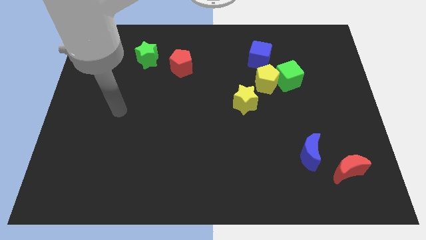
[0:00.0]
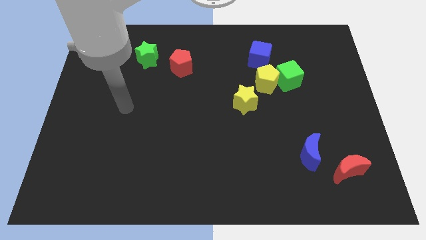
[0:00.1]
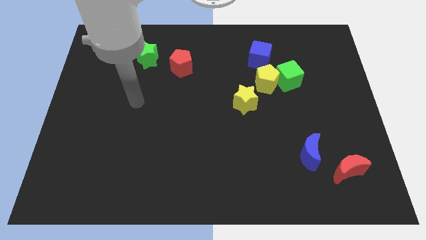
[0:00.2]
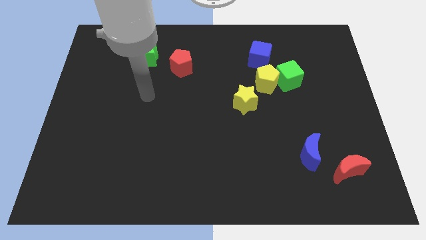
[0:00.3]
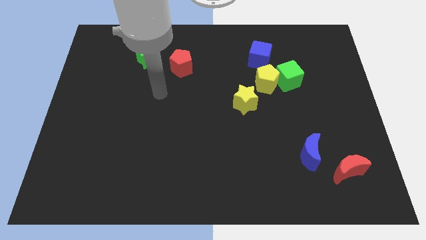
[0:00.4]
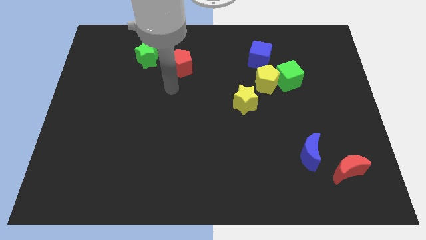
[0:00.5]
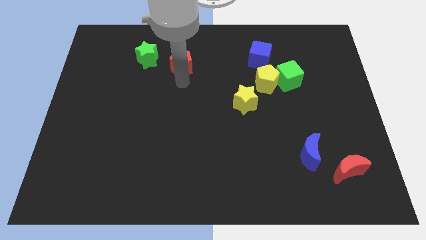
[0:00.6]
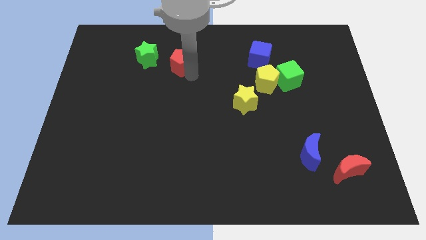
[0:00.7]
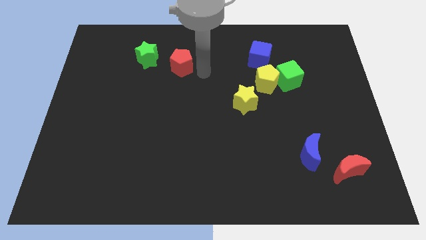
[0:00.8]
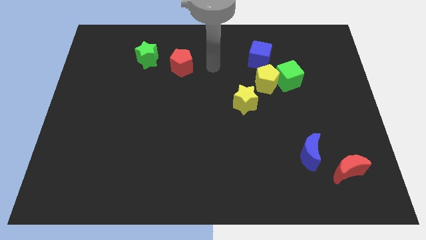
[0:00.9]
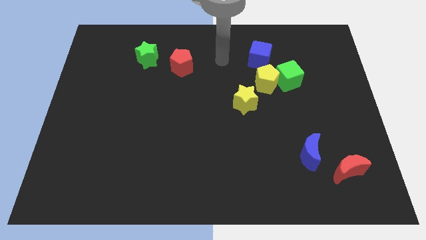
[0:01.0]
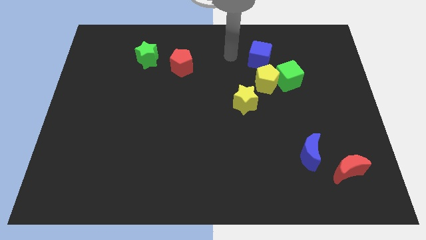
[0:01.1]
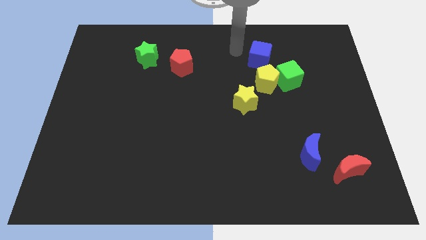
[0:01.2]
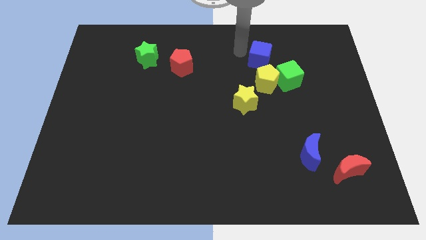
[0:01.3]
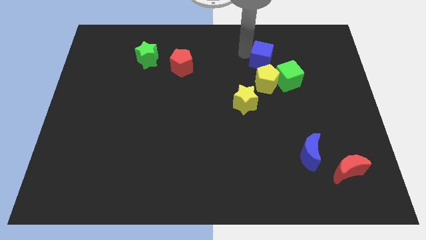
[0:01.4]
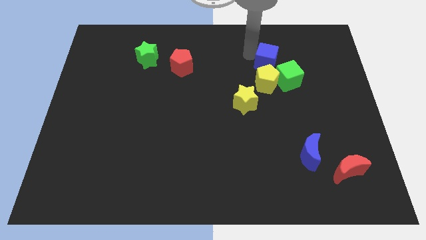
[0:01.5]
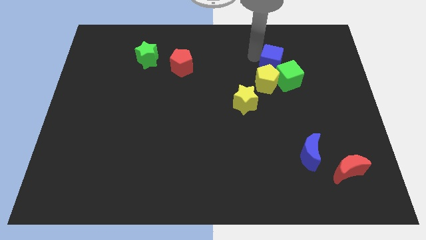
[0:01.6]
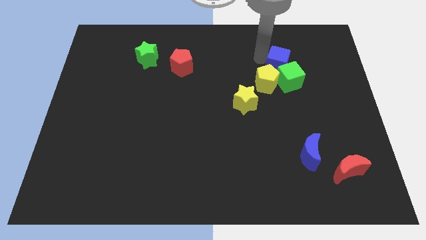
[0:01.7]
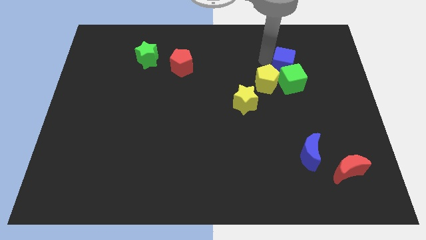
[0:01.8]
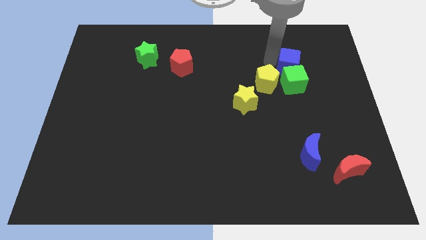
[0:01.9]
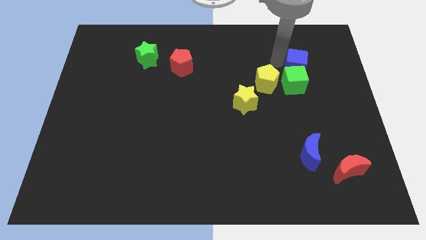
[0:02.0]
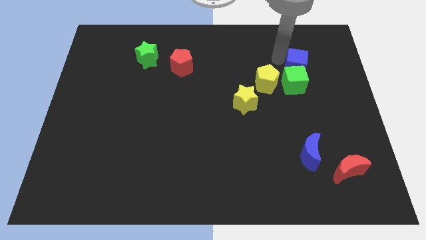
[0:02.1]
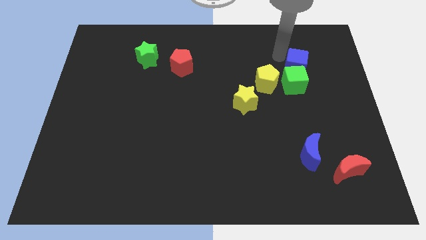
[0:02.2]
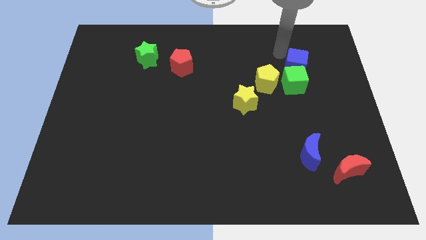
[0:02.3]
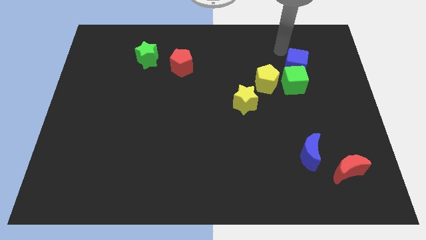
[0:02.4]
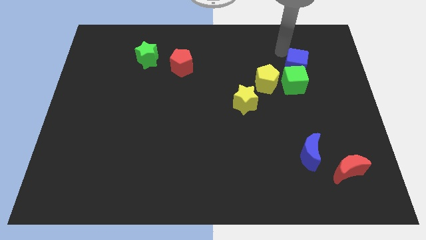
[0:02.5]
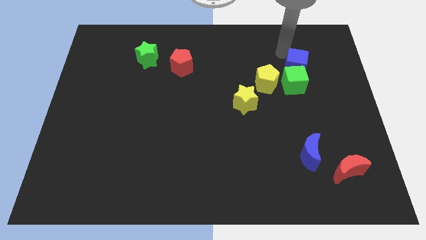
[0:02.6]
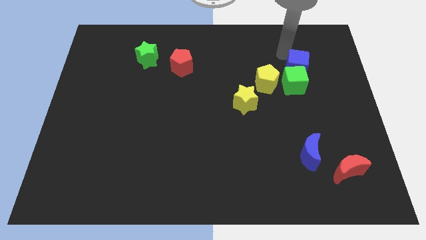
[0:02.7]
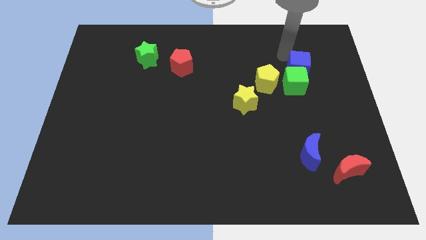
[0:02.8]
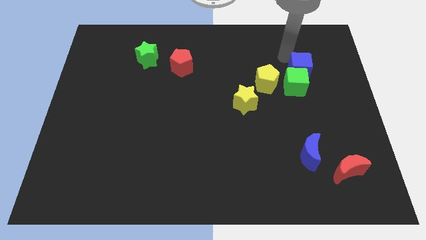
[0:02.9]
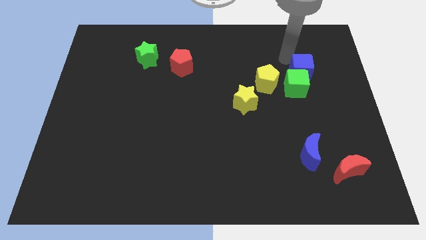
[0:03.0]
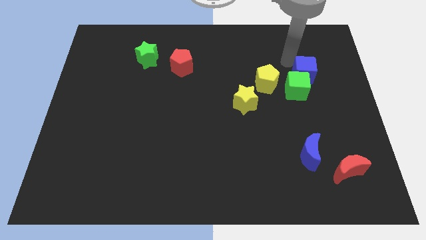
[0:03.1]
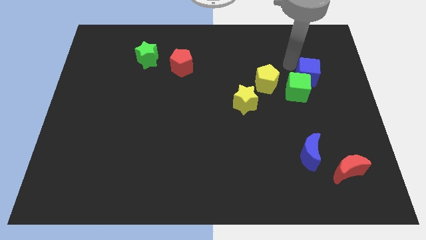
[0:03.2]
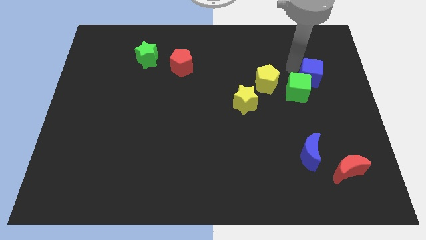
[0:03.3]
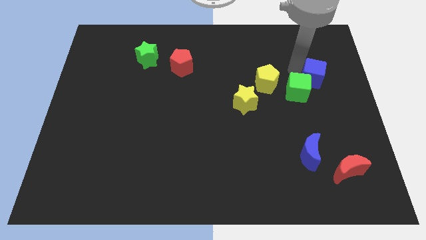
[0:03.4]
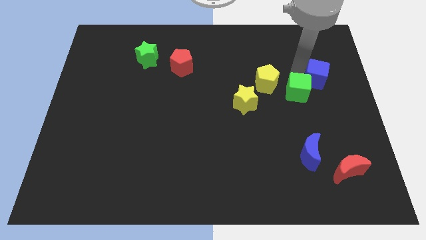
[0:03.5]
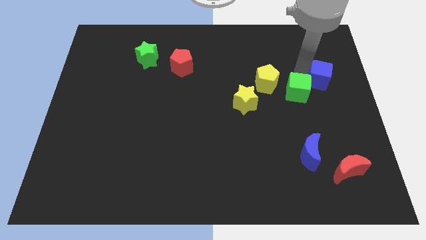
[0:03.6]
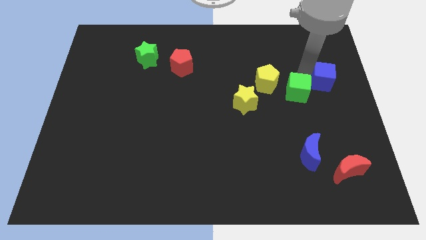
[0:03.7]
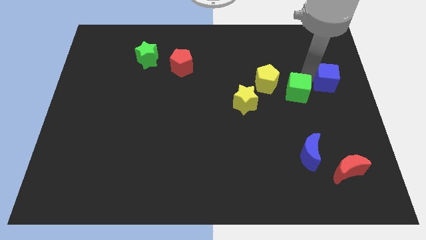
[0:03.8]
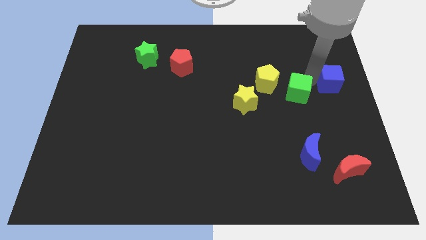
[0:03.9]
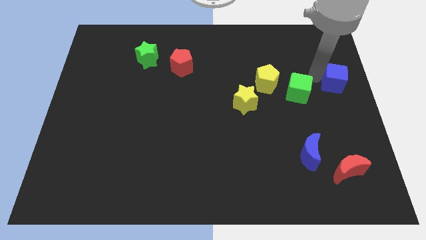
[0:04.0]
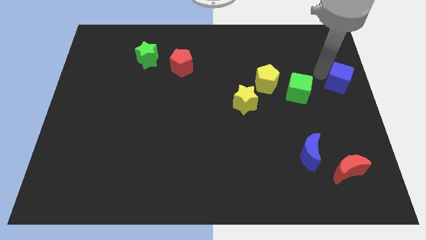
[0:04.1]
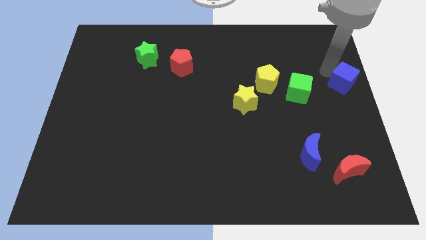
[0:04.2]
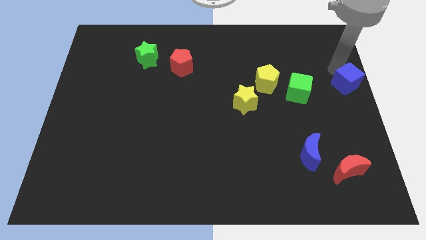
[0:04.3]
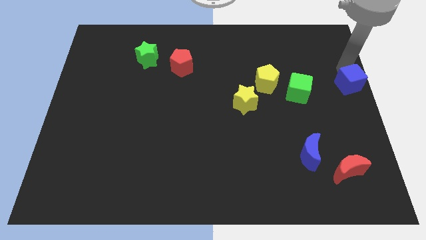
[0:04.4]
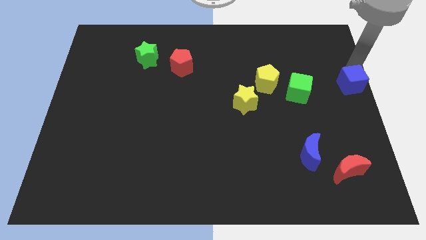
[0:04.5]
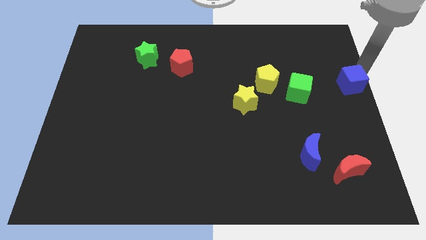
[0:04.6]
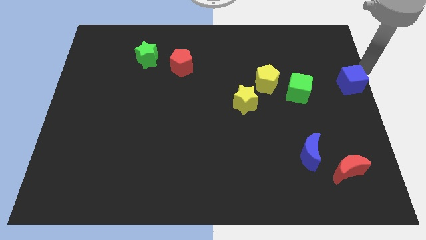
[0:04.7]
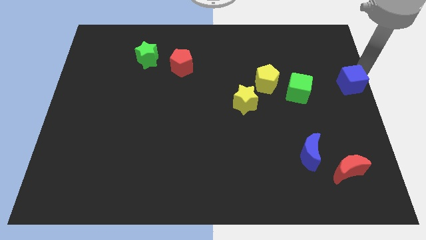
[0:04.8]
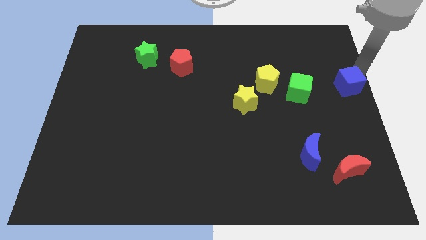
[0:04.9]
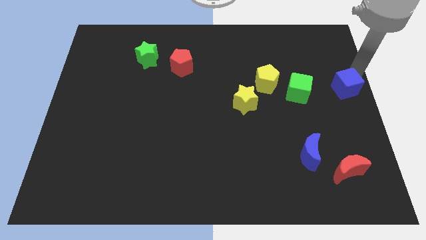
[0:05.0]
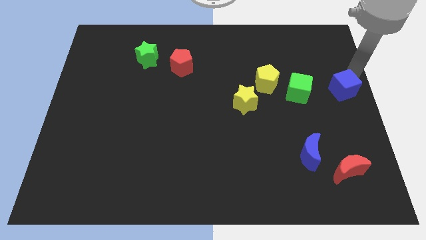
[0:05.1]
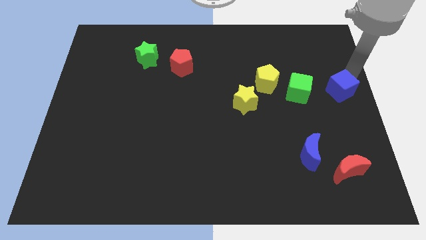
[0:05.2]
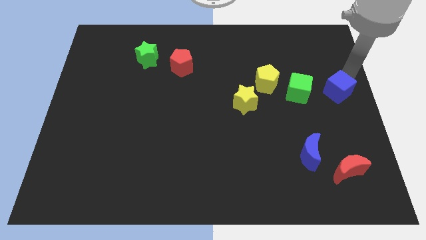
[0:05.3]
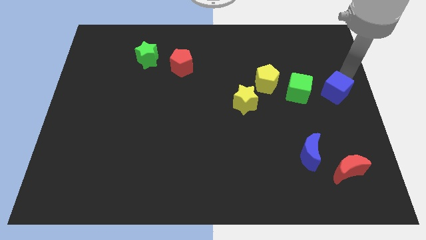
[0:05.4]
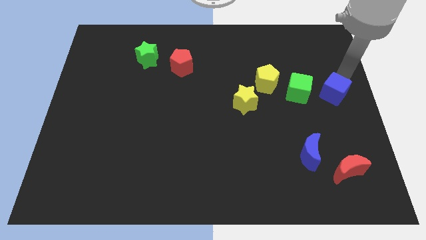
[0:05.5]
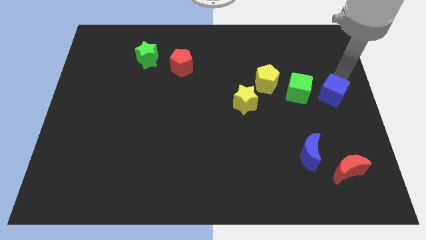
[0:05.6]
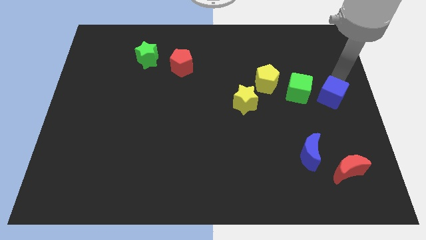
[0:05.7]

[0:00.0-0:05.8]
push the blue cube diagonally down and to the right of the green cube
